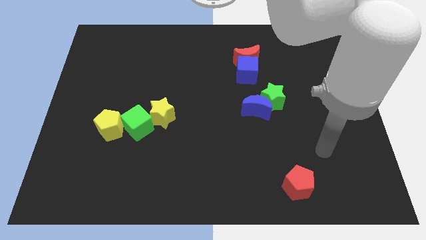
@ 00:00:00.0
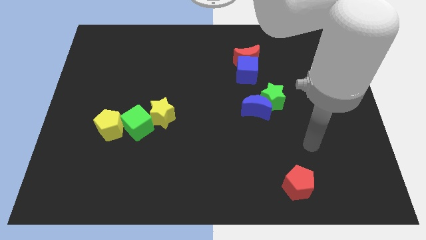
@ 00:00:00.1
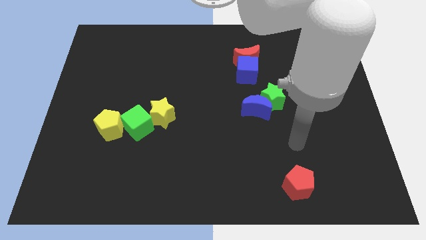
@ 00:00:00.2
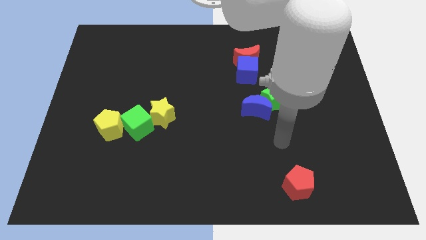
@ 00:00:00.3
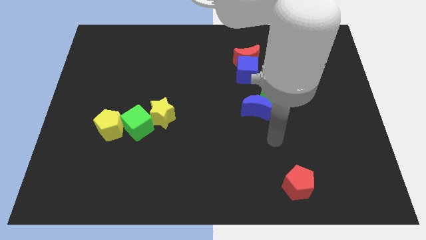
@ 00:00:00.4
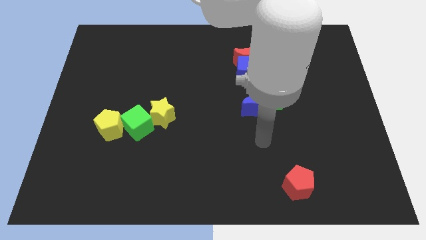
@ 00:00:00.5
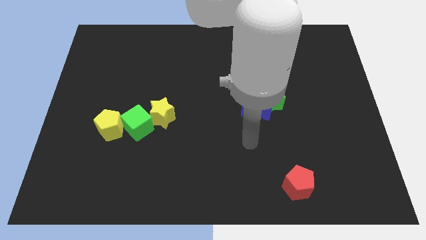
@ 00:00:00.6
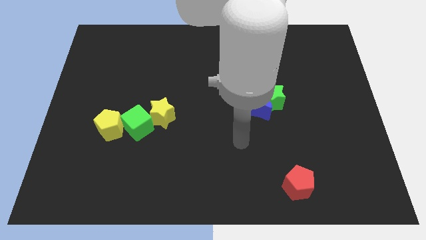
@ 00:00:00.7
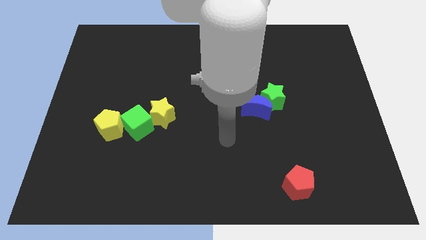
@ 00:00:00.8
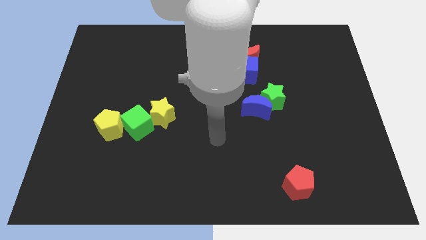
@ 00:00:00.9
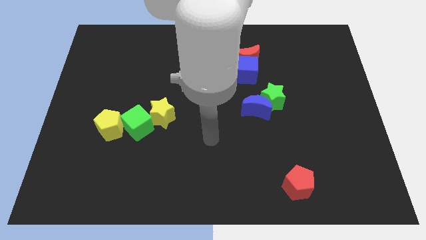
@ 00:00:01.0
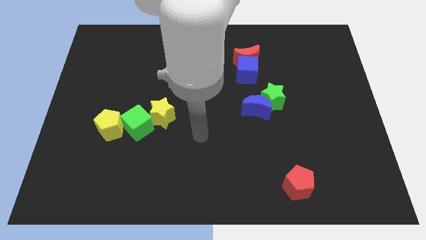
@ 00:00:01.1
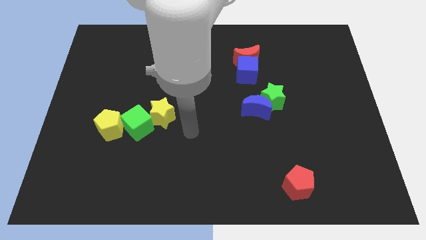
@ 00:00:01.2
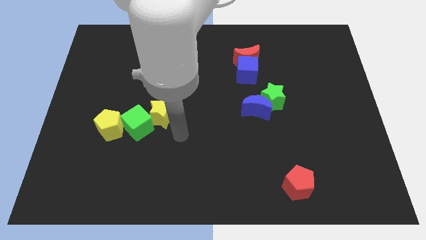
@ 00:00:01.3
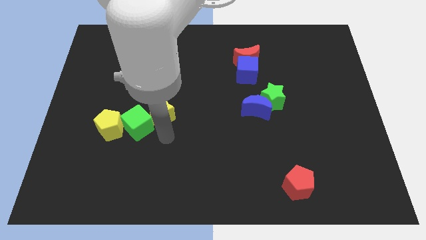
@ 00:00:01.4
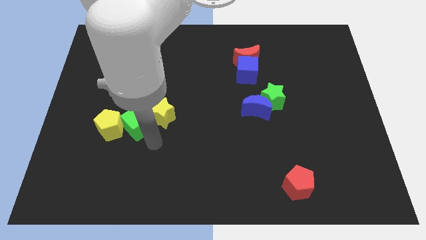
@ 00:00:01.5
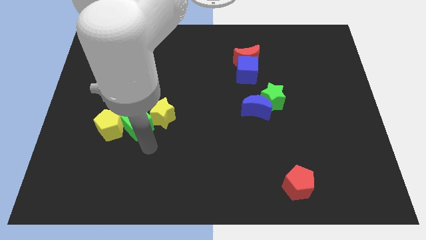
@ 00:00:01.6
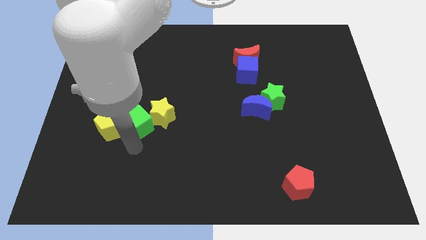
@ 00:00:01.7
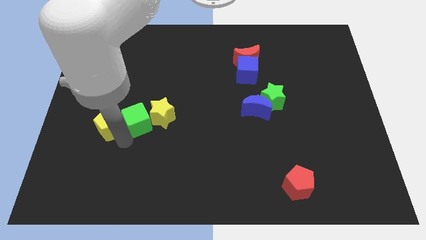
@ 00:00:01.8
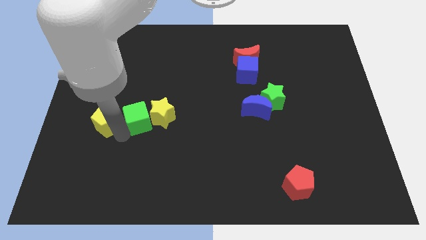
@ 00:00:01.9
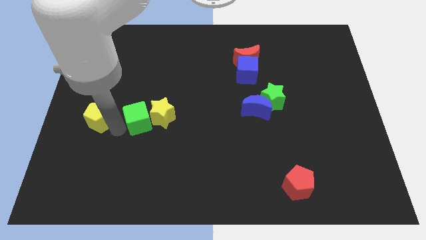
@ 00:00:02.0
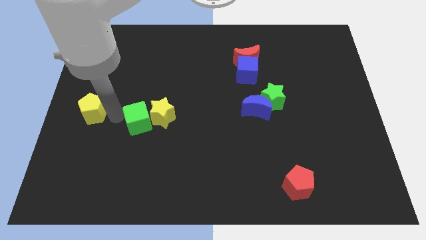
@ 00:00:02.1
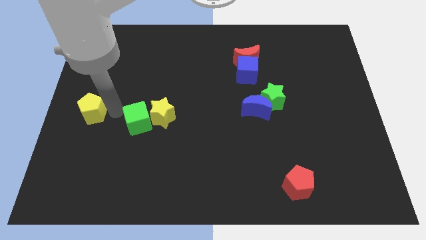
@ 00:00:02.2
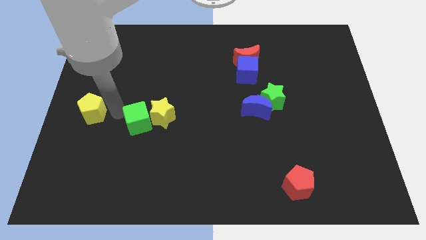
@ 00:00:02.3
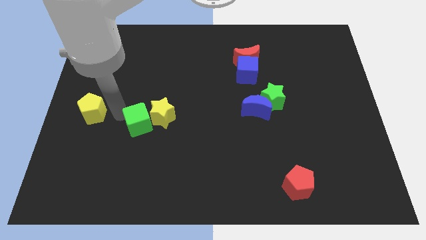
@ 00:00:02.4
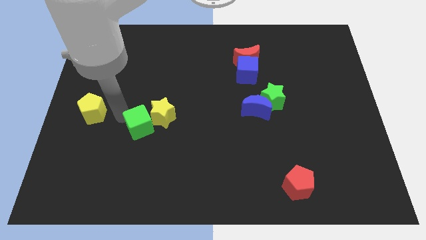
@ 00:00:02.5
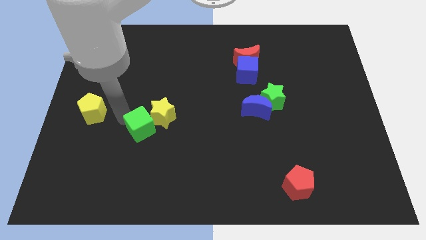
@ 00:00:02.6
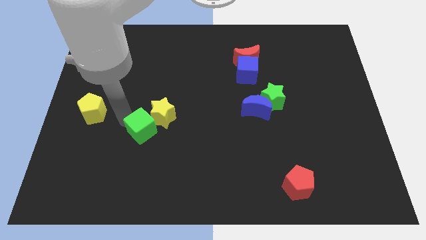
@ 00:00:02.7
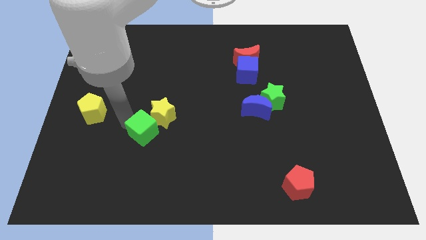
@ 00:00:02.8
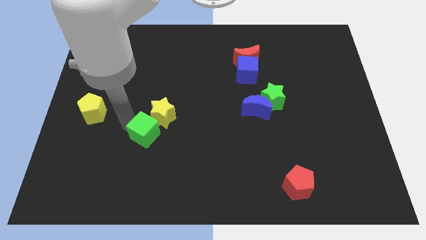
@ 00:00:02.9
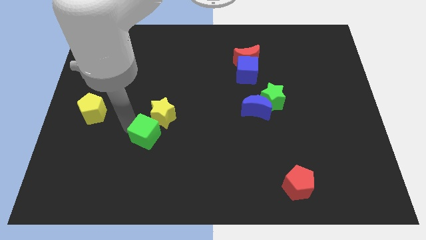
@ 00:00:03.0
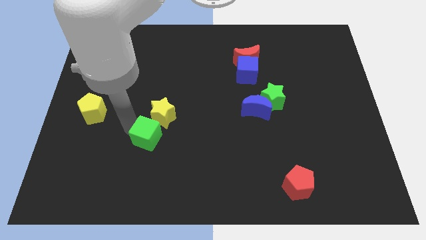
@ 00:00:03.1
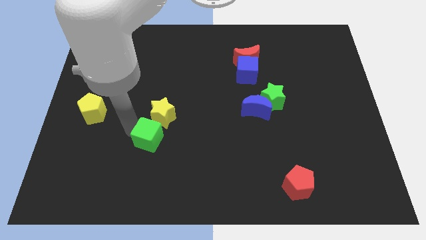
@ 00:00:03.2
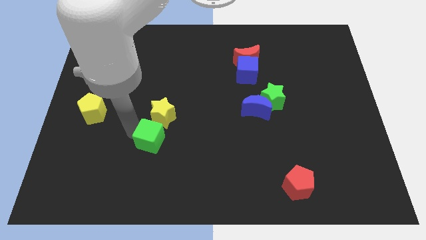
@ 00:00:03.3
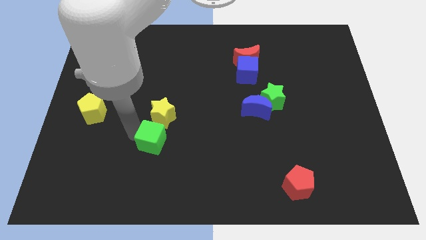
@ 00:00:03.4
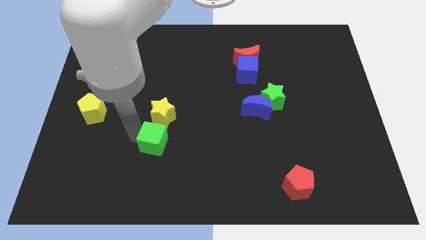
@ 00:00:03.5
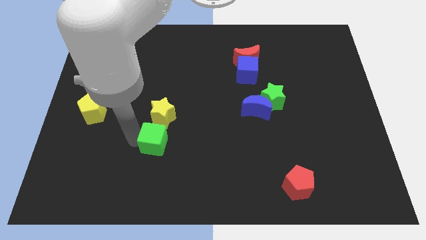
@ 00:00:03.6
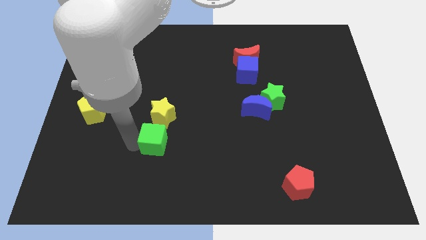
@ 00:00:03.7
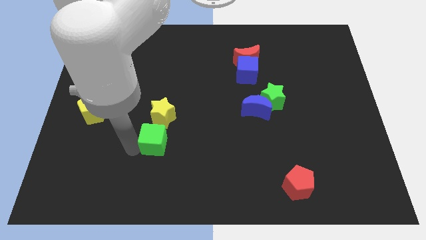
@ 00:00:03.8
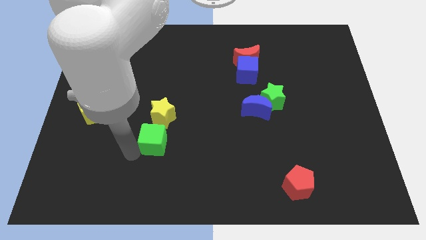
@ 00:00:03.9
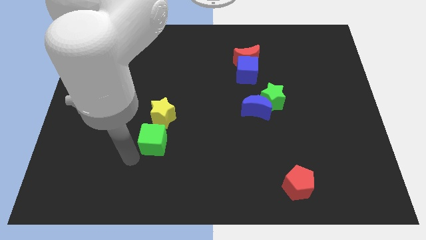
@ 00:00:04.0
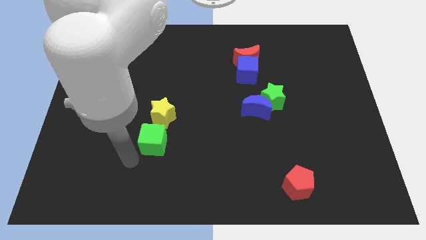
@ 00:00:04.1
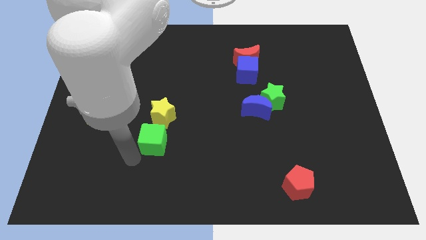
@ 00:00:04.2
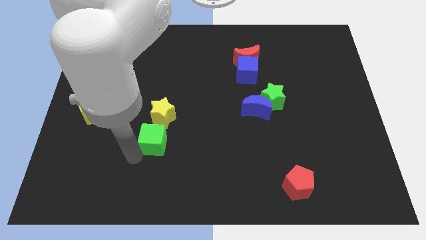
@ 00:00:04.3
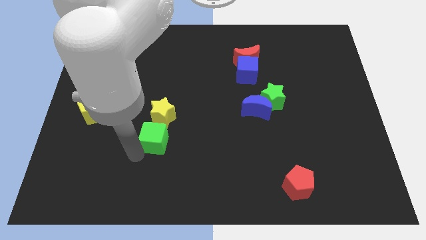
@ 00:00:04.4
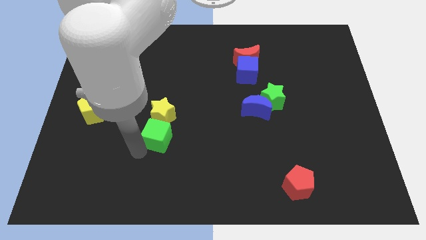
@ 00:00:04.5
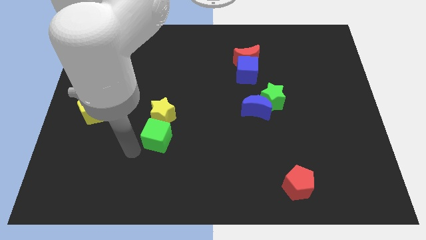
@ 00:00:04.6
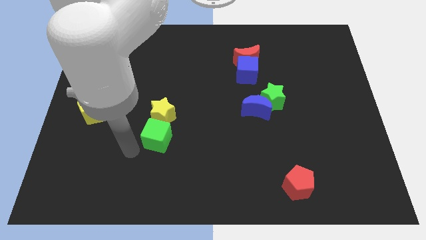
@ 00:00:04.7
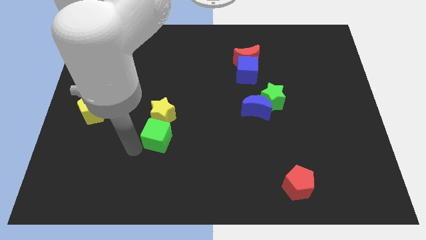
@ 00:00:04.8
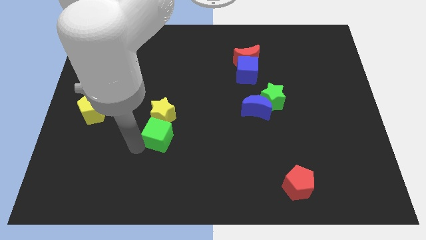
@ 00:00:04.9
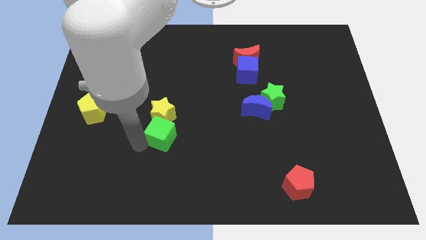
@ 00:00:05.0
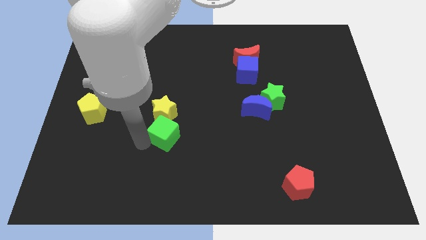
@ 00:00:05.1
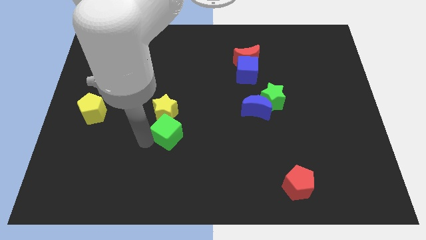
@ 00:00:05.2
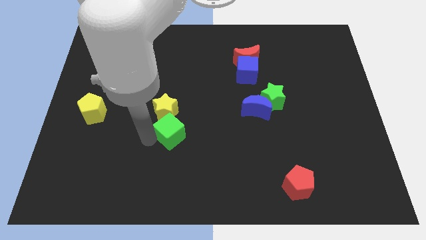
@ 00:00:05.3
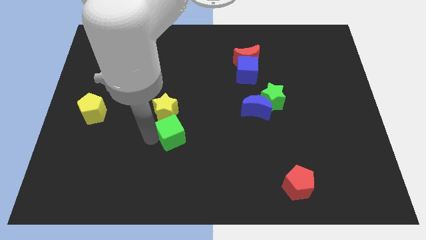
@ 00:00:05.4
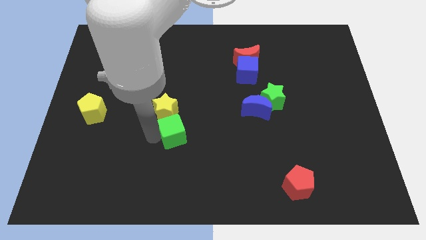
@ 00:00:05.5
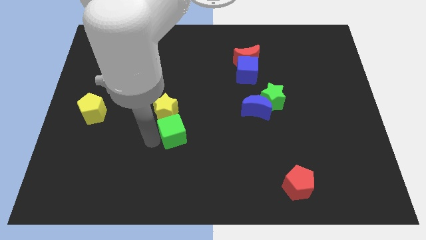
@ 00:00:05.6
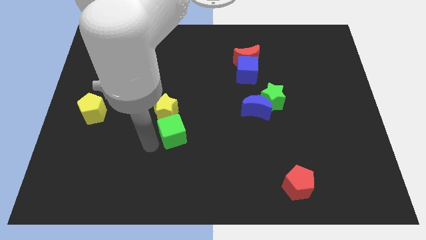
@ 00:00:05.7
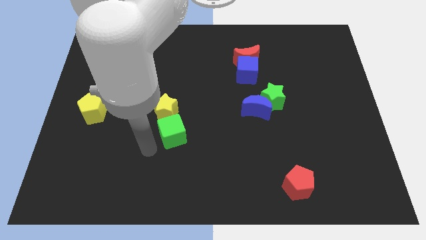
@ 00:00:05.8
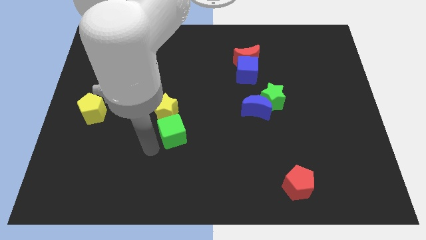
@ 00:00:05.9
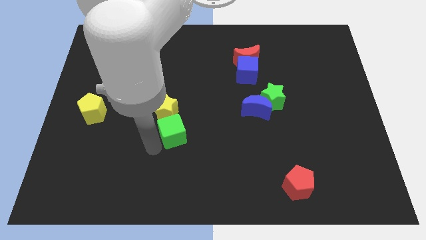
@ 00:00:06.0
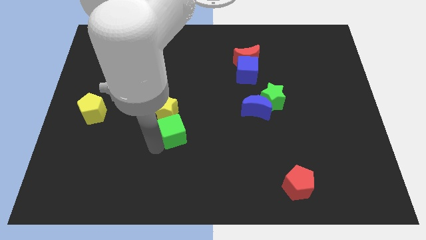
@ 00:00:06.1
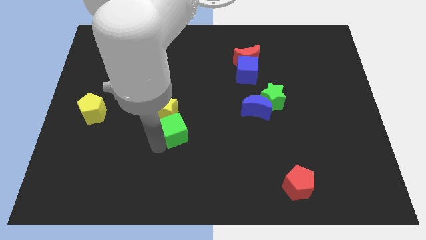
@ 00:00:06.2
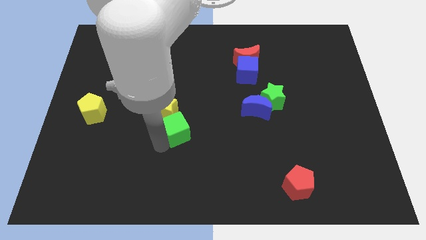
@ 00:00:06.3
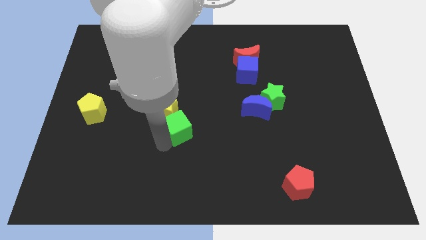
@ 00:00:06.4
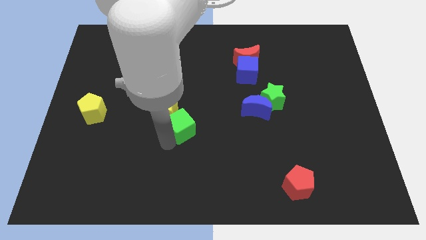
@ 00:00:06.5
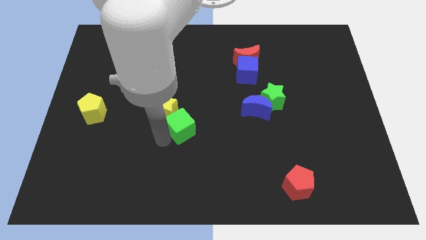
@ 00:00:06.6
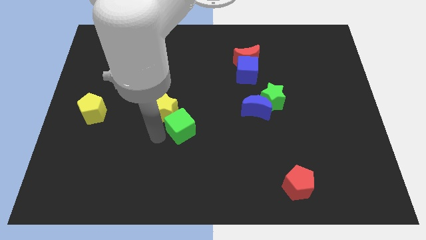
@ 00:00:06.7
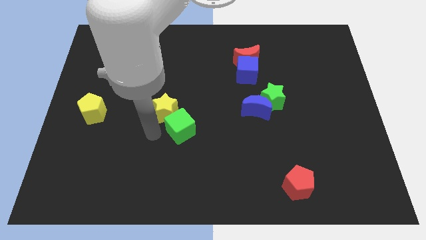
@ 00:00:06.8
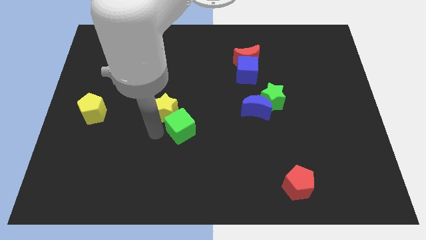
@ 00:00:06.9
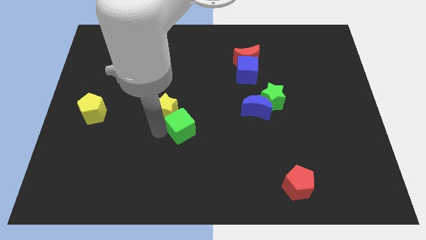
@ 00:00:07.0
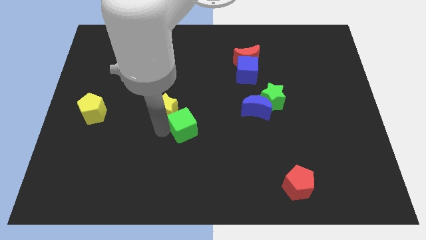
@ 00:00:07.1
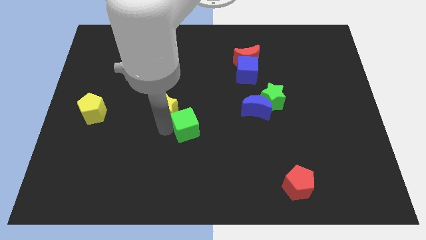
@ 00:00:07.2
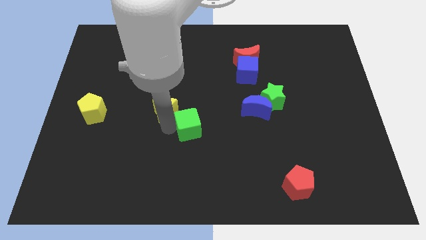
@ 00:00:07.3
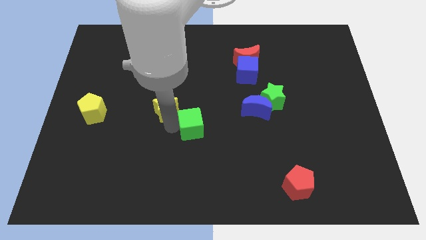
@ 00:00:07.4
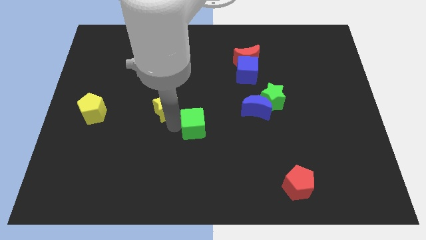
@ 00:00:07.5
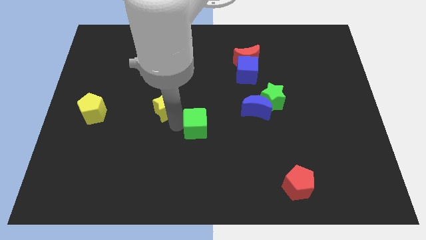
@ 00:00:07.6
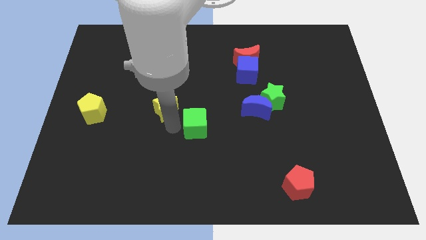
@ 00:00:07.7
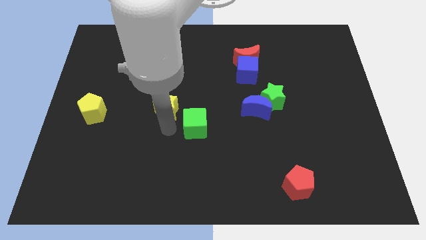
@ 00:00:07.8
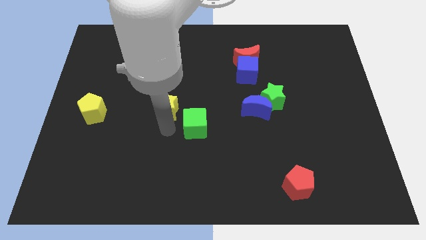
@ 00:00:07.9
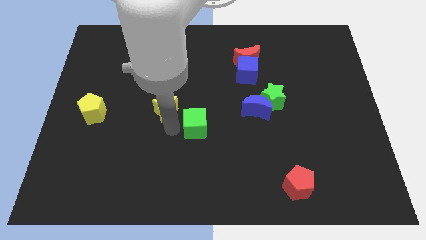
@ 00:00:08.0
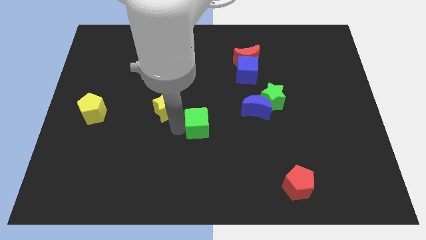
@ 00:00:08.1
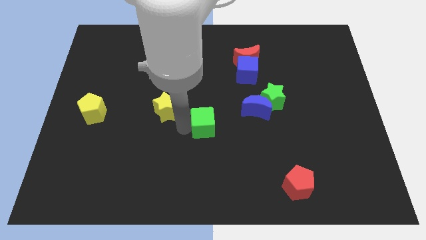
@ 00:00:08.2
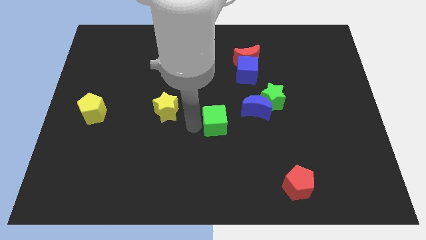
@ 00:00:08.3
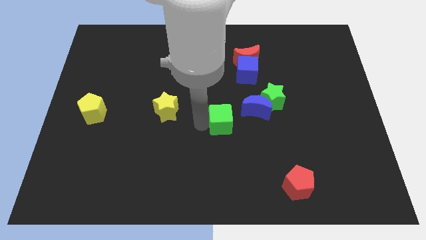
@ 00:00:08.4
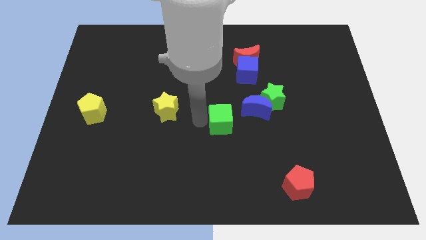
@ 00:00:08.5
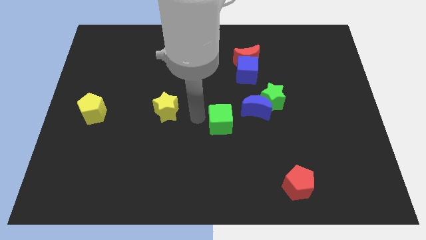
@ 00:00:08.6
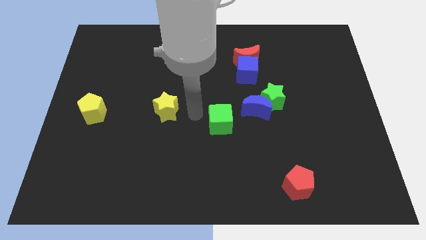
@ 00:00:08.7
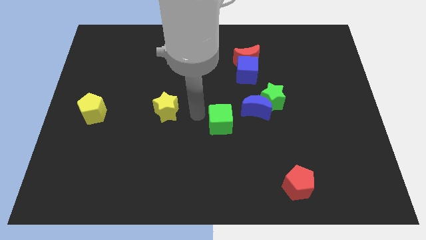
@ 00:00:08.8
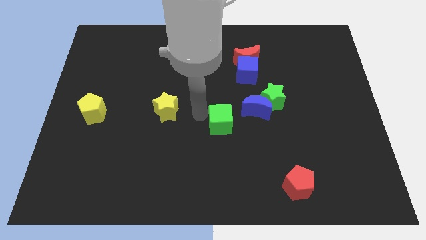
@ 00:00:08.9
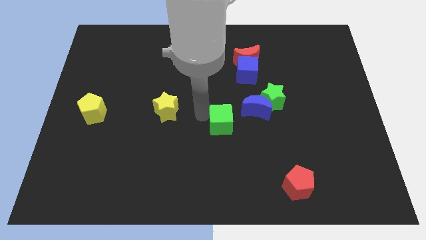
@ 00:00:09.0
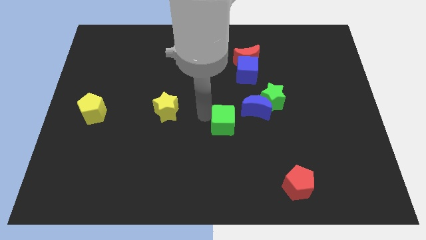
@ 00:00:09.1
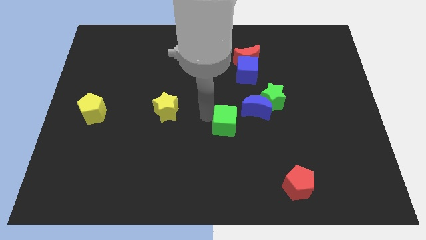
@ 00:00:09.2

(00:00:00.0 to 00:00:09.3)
slide the green cube to the right
